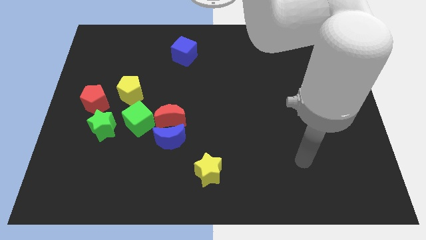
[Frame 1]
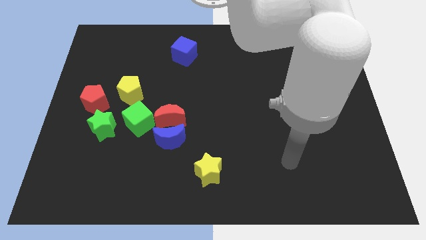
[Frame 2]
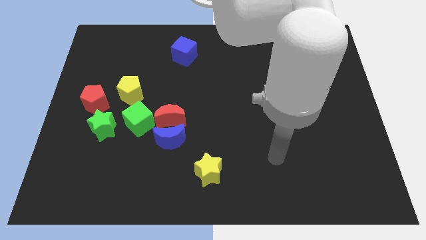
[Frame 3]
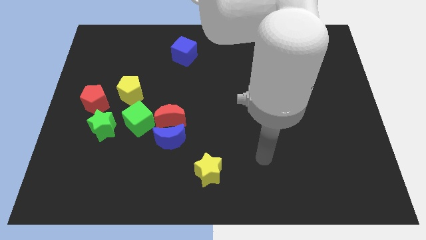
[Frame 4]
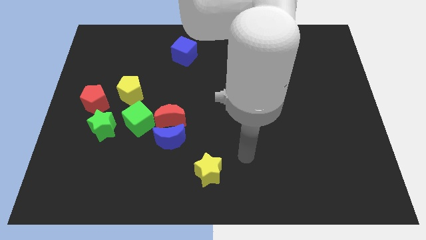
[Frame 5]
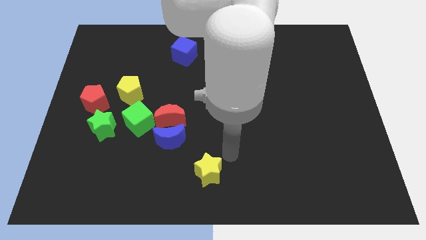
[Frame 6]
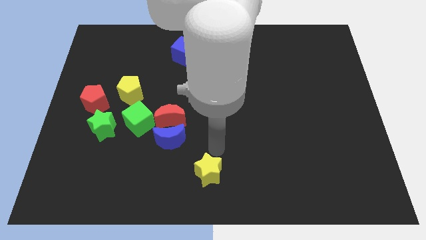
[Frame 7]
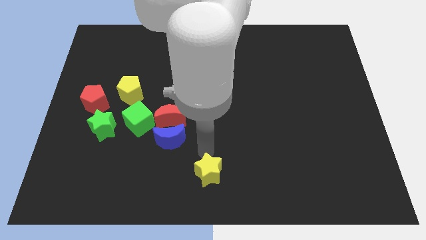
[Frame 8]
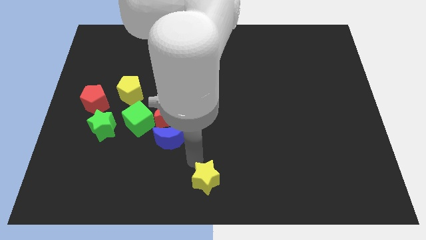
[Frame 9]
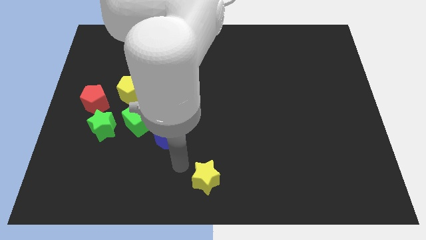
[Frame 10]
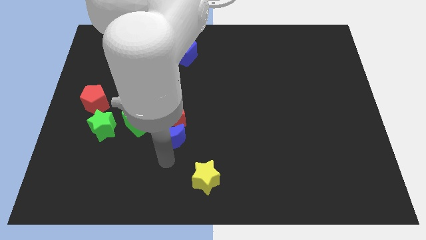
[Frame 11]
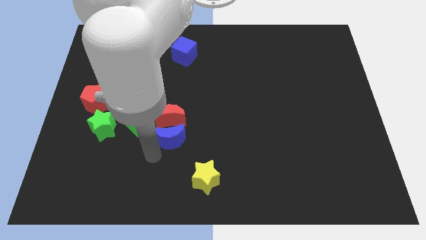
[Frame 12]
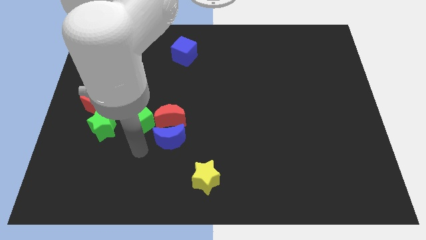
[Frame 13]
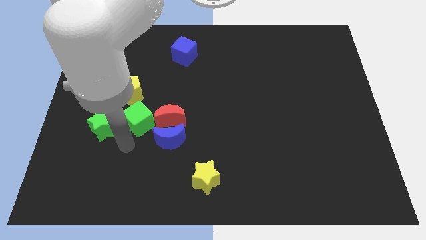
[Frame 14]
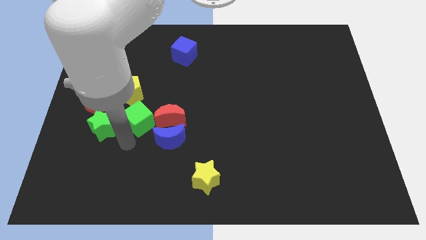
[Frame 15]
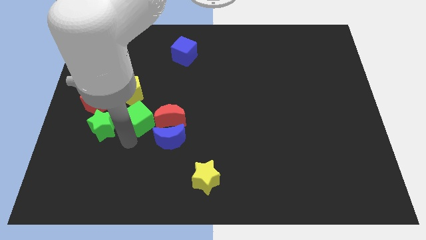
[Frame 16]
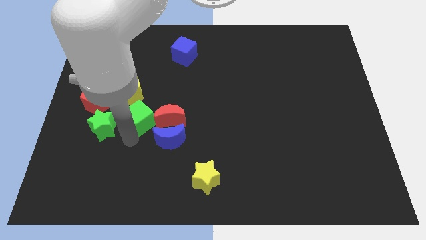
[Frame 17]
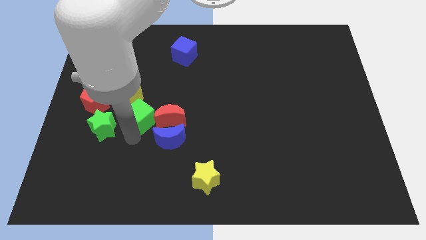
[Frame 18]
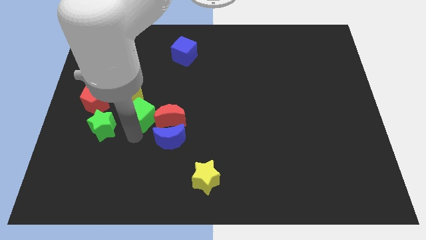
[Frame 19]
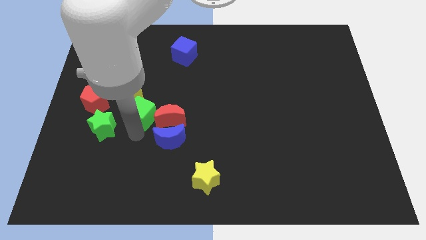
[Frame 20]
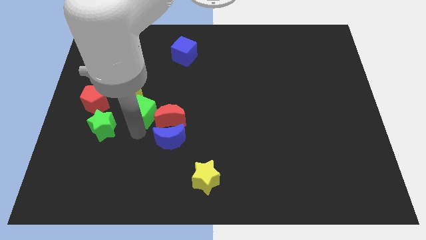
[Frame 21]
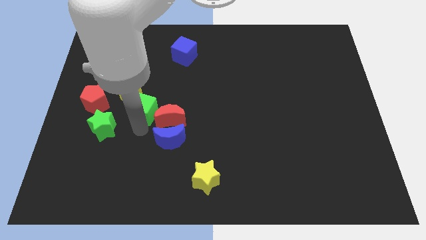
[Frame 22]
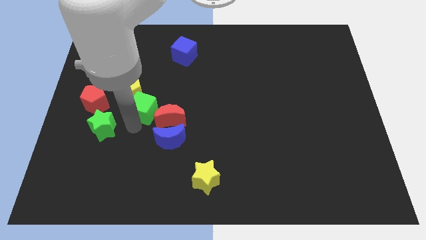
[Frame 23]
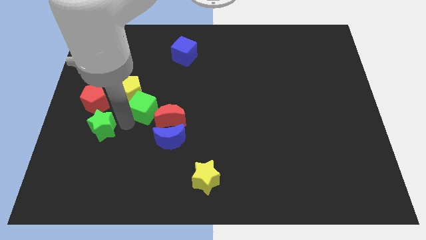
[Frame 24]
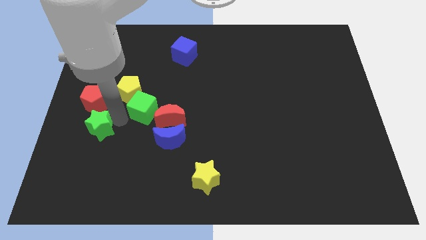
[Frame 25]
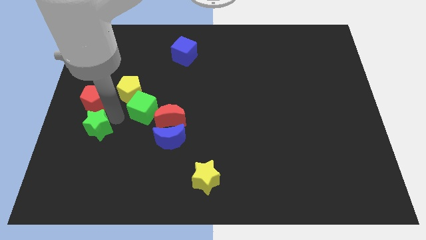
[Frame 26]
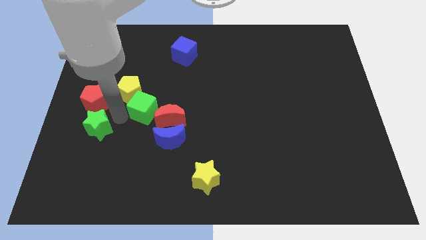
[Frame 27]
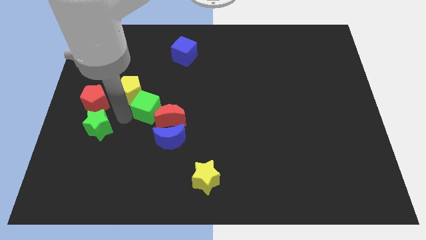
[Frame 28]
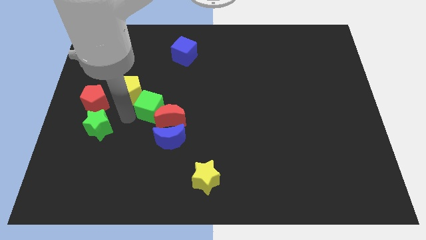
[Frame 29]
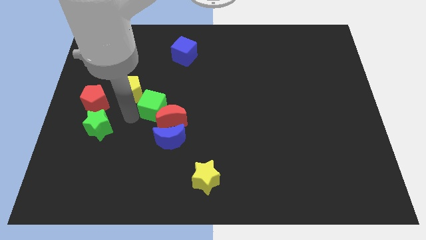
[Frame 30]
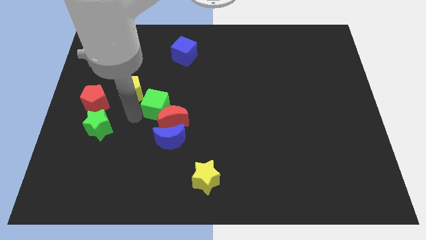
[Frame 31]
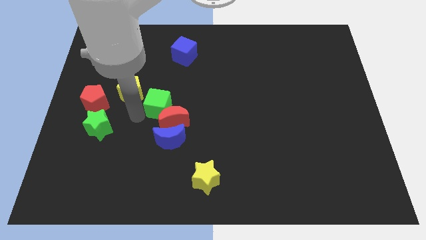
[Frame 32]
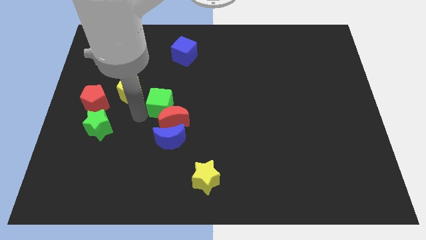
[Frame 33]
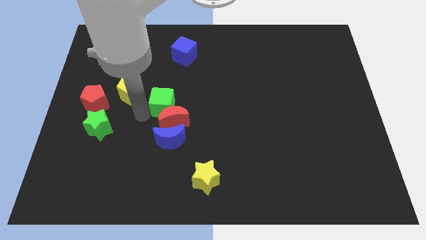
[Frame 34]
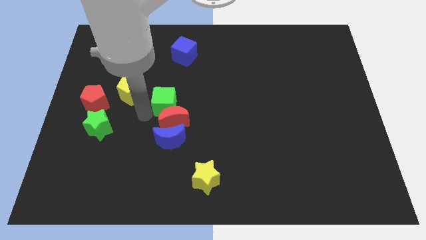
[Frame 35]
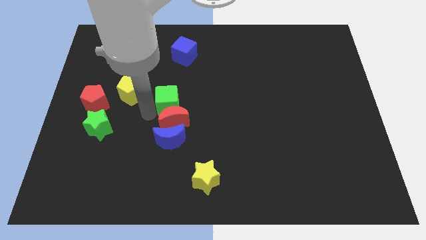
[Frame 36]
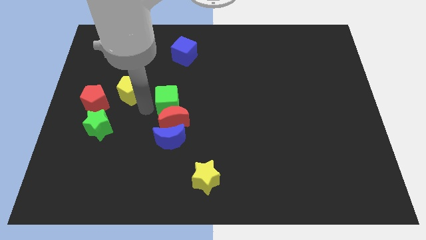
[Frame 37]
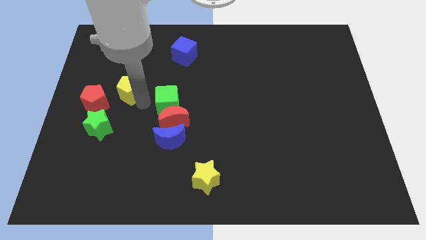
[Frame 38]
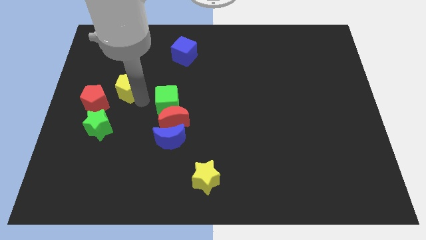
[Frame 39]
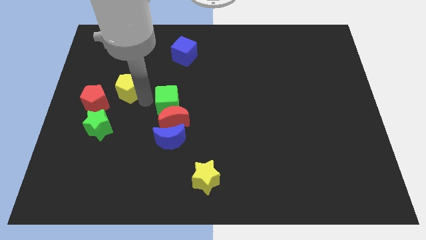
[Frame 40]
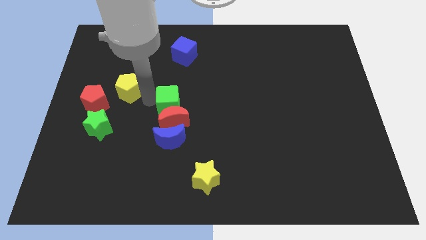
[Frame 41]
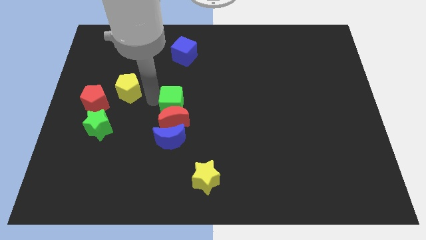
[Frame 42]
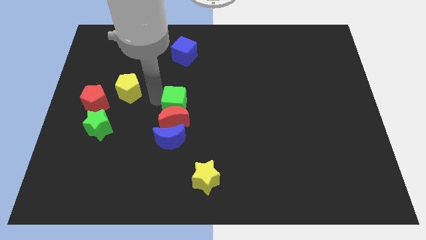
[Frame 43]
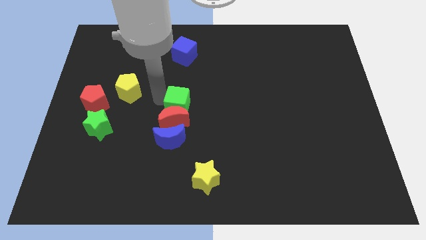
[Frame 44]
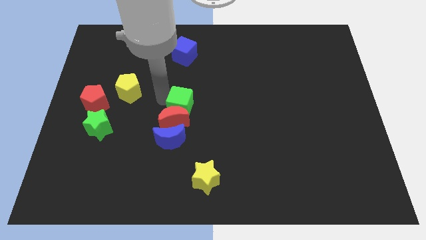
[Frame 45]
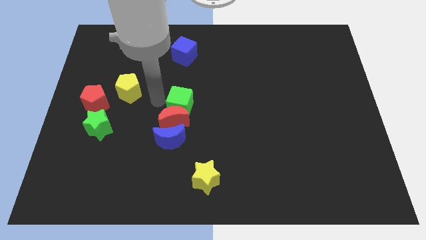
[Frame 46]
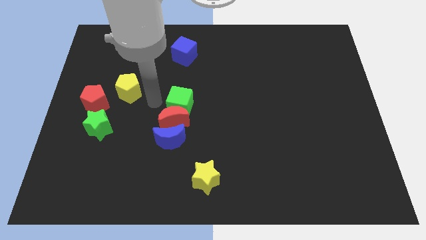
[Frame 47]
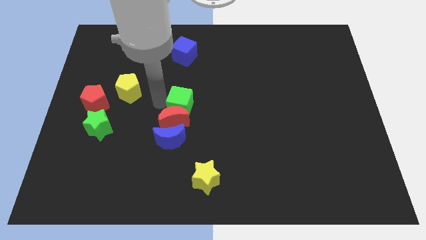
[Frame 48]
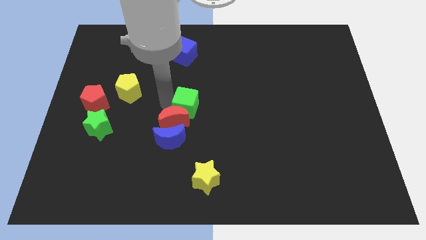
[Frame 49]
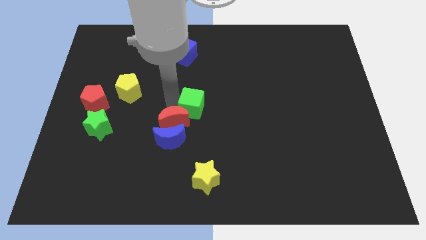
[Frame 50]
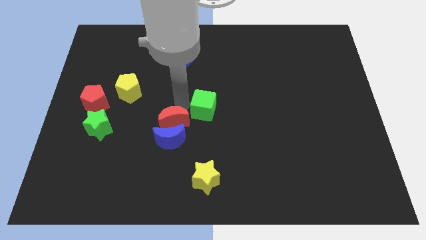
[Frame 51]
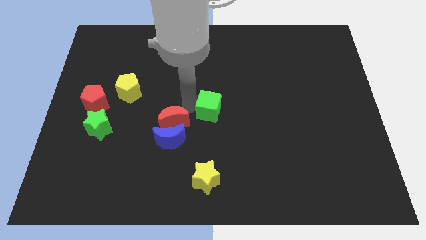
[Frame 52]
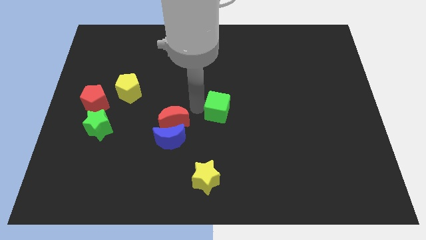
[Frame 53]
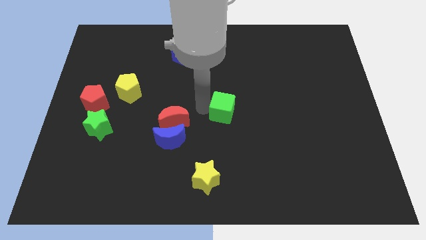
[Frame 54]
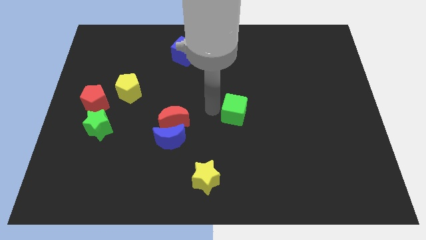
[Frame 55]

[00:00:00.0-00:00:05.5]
slide the green cube to the right

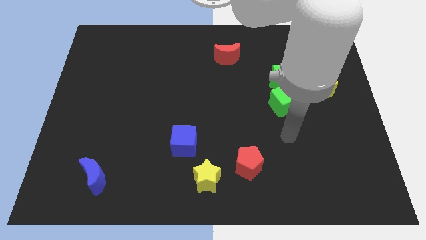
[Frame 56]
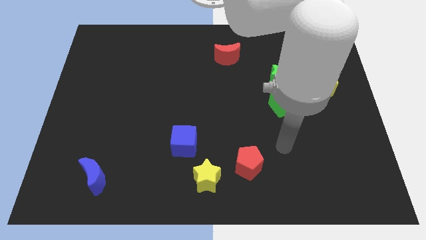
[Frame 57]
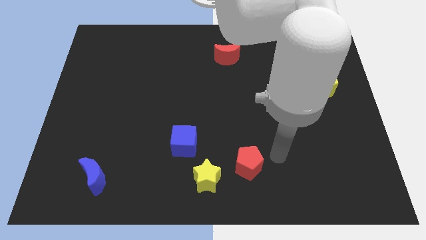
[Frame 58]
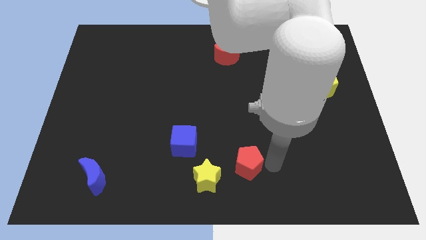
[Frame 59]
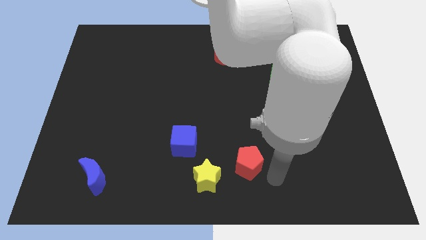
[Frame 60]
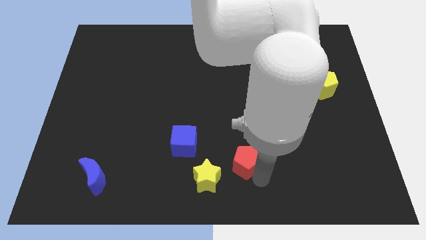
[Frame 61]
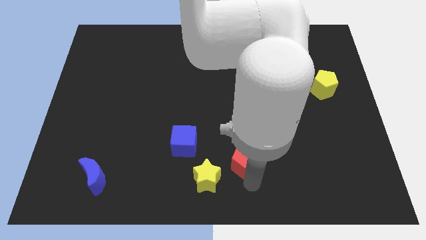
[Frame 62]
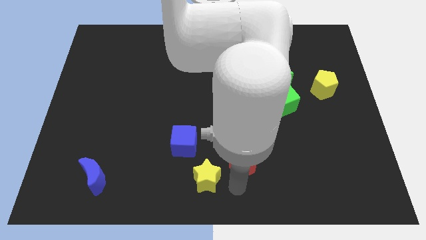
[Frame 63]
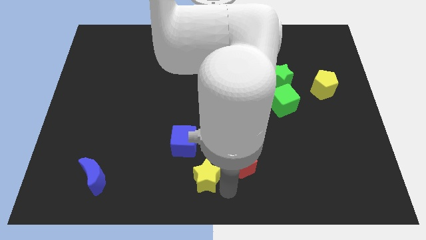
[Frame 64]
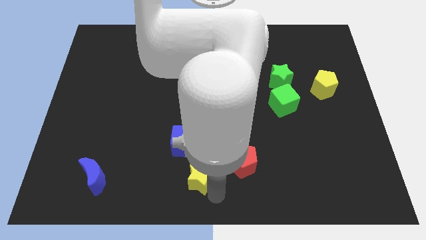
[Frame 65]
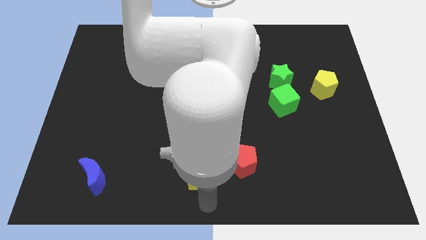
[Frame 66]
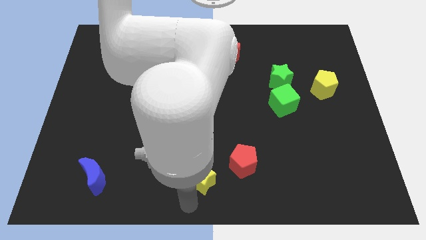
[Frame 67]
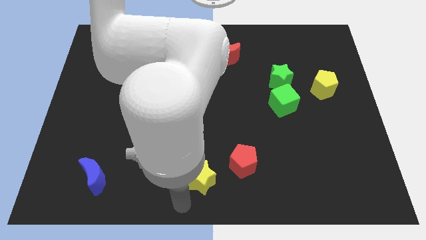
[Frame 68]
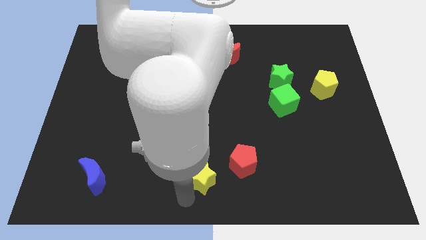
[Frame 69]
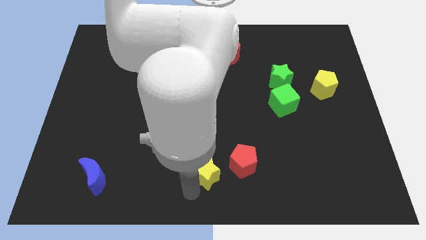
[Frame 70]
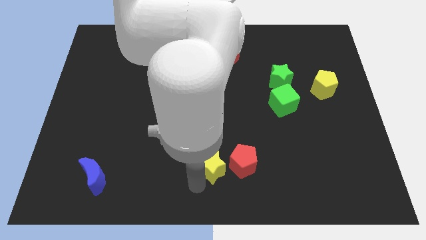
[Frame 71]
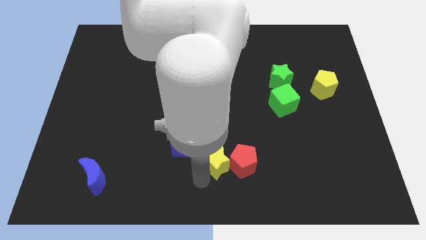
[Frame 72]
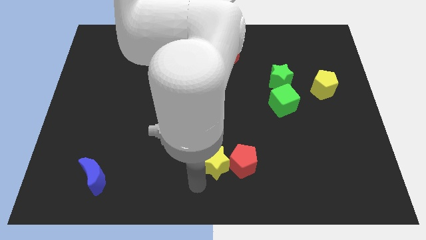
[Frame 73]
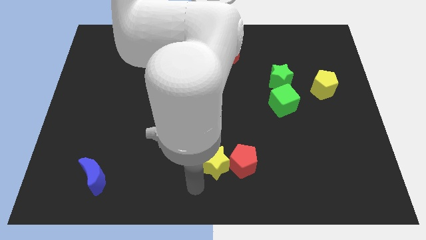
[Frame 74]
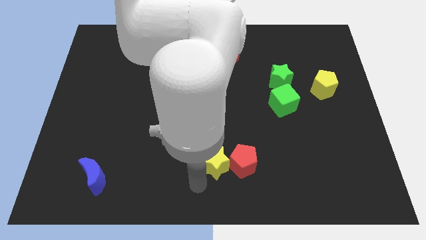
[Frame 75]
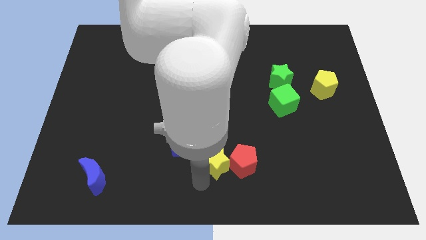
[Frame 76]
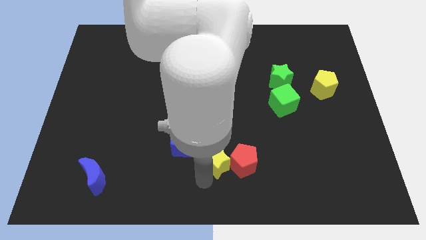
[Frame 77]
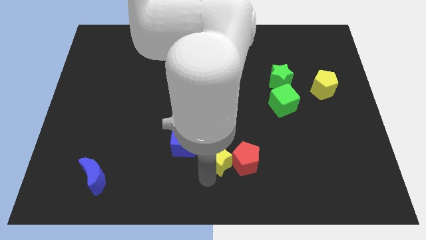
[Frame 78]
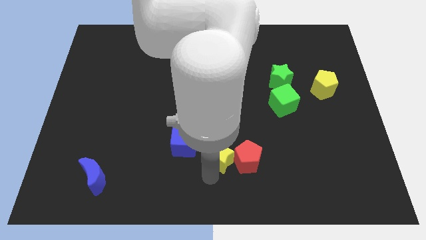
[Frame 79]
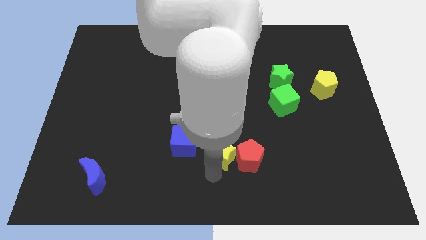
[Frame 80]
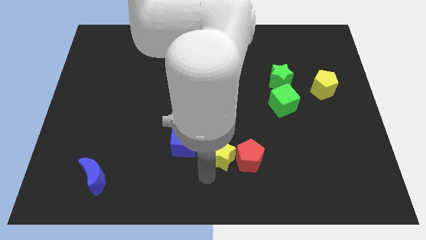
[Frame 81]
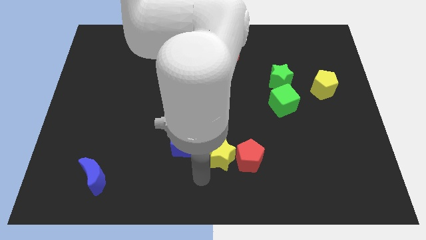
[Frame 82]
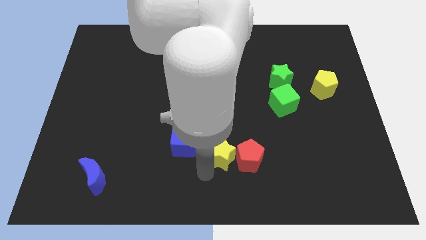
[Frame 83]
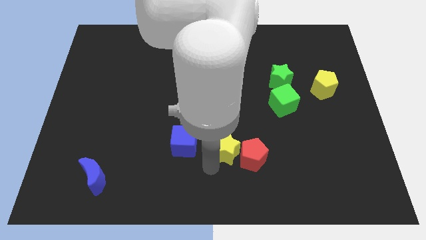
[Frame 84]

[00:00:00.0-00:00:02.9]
push the yellow star slightly up and then to the right
